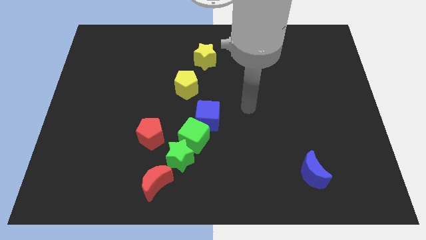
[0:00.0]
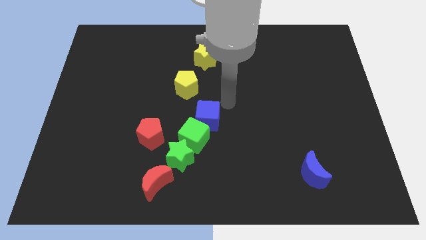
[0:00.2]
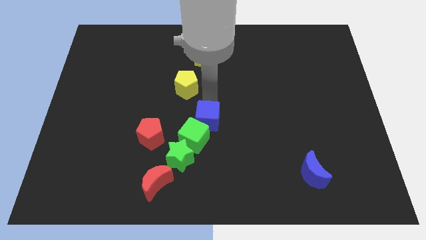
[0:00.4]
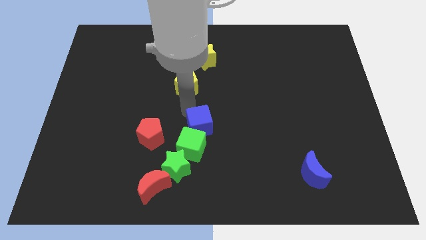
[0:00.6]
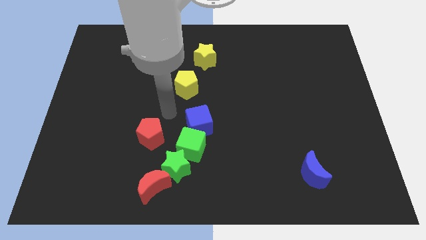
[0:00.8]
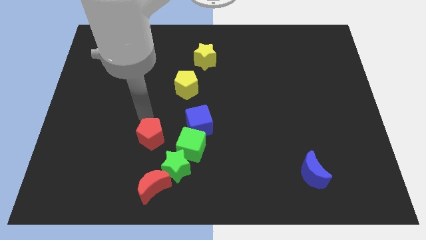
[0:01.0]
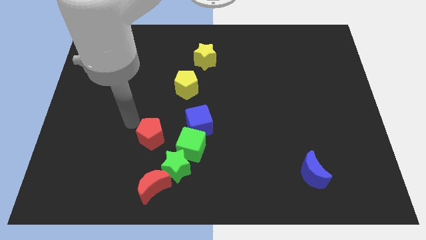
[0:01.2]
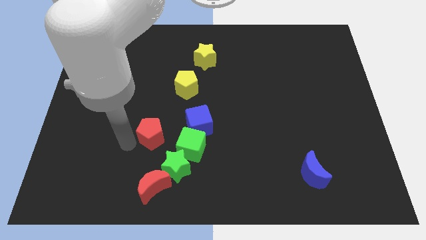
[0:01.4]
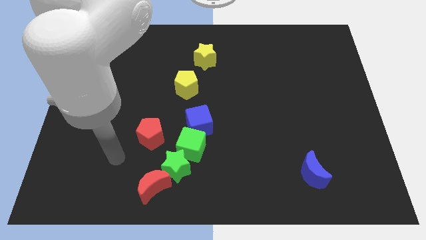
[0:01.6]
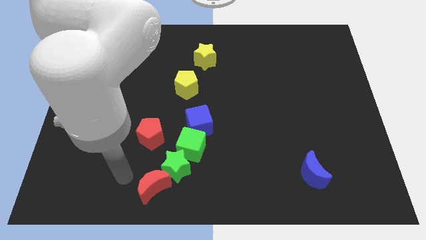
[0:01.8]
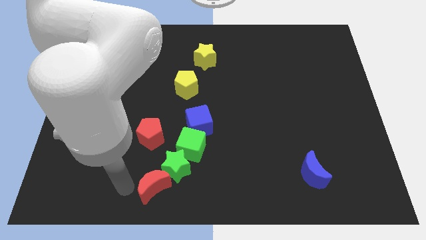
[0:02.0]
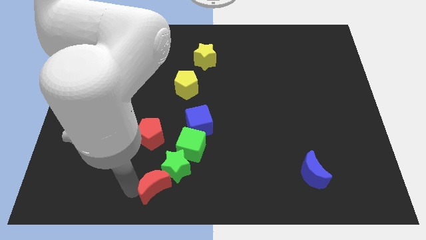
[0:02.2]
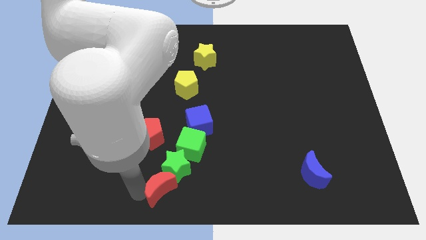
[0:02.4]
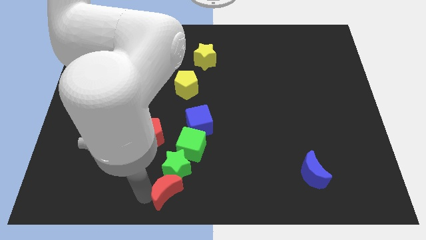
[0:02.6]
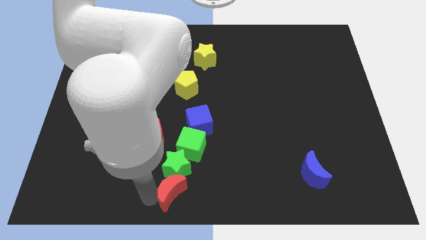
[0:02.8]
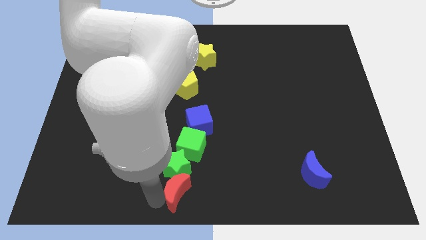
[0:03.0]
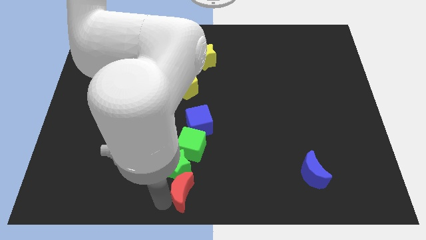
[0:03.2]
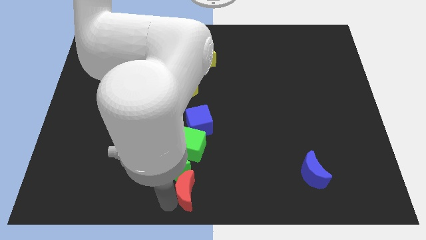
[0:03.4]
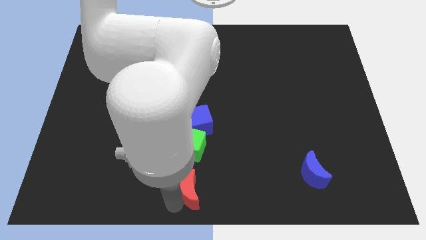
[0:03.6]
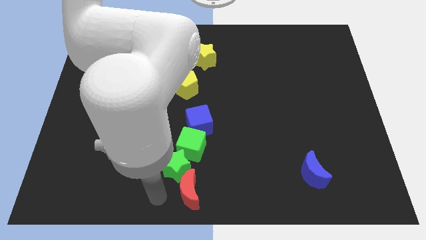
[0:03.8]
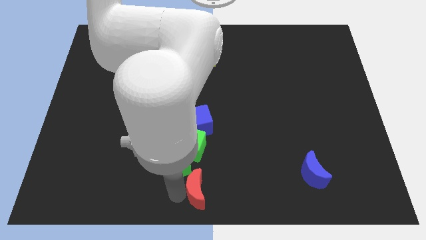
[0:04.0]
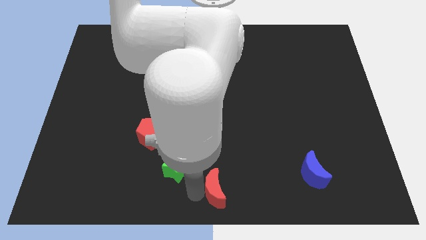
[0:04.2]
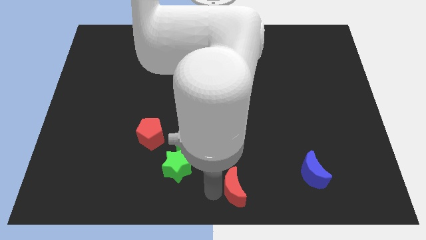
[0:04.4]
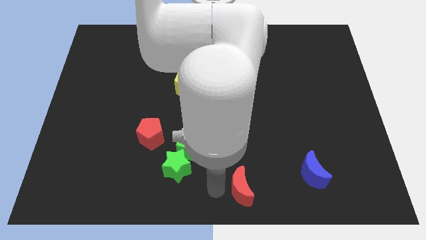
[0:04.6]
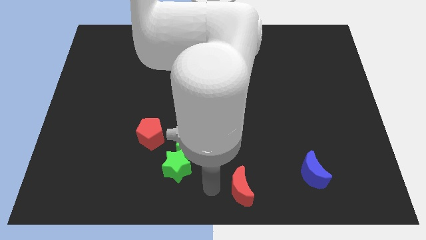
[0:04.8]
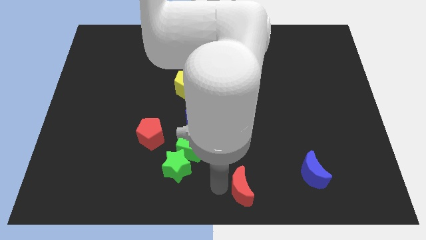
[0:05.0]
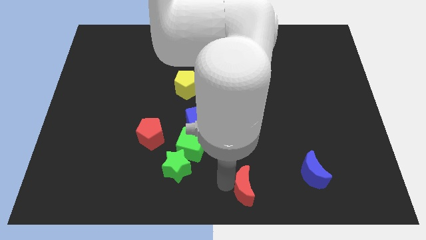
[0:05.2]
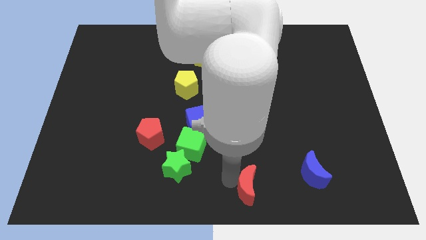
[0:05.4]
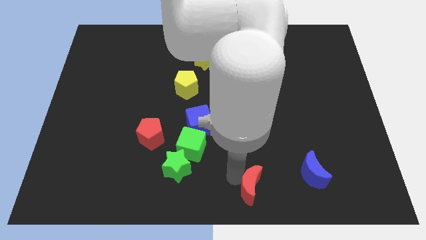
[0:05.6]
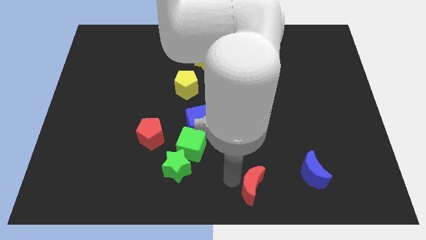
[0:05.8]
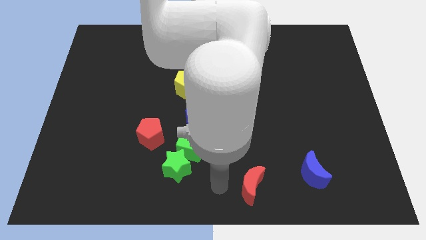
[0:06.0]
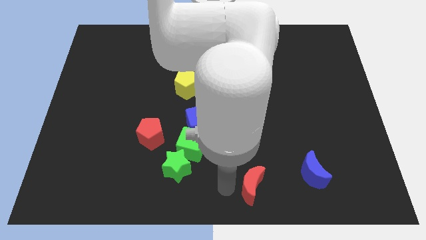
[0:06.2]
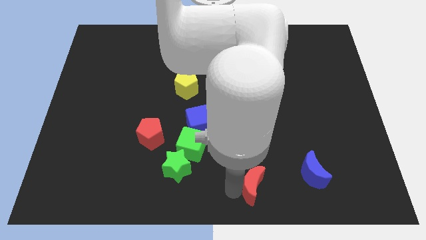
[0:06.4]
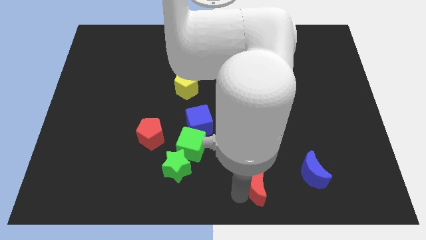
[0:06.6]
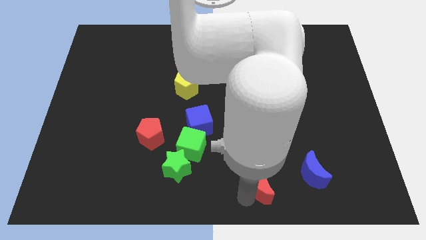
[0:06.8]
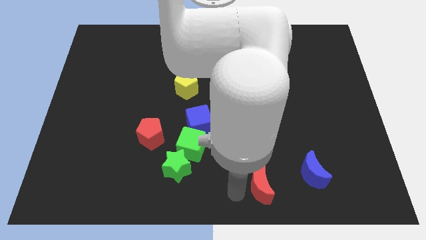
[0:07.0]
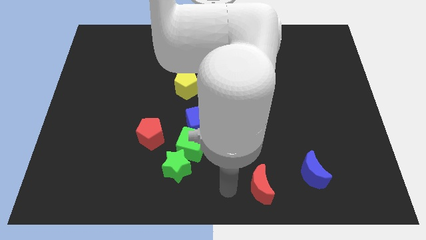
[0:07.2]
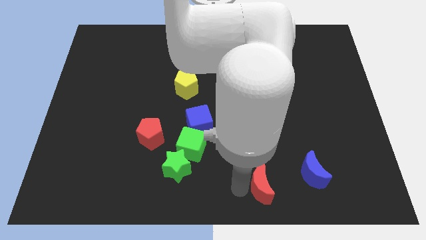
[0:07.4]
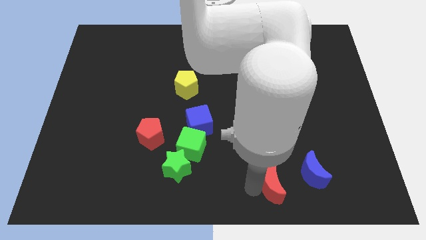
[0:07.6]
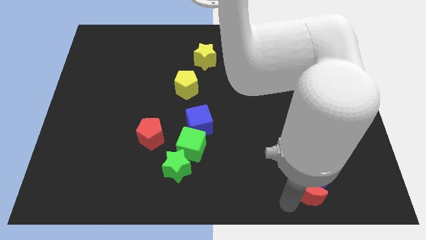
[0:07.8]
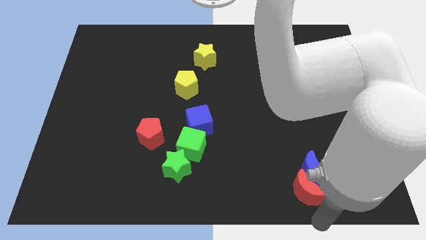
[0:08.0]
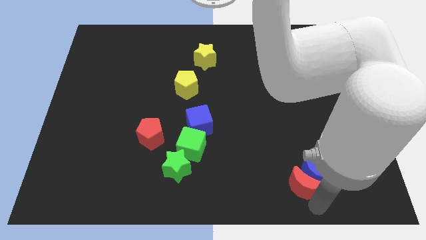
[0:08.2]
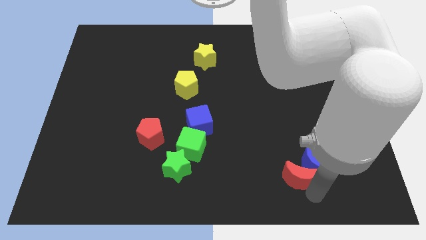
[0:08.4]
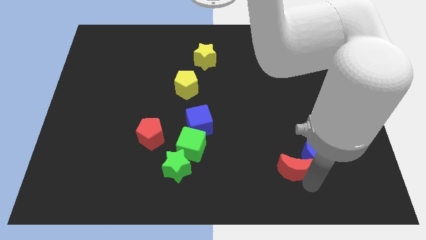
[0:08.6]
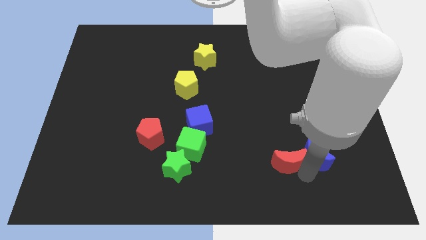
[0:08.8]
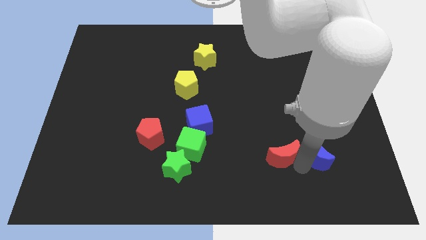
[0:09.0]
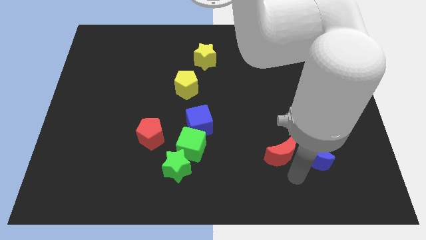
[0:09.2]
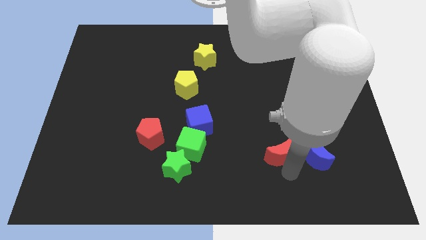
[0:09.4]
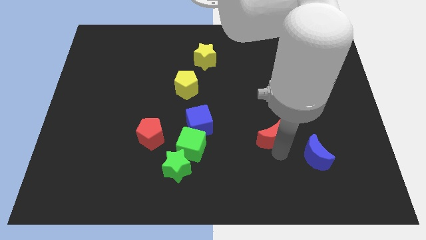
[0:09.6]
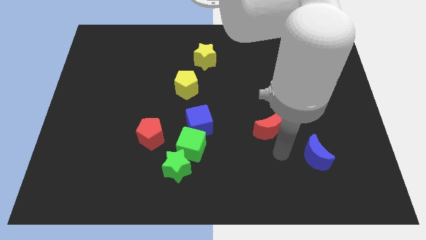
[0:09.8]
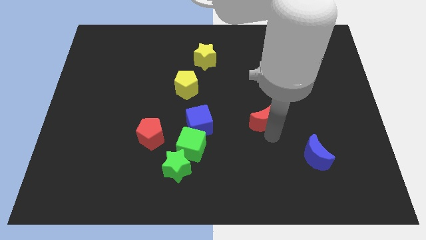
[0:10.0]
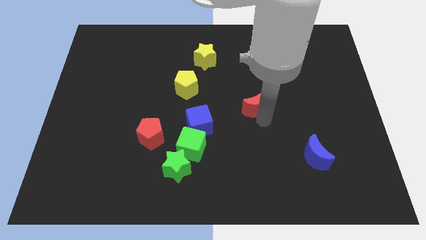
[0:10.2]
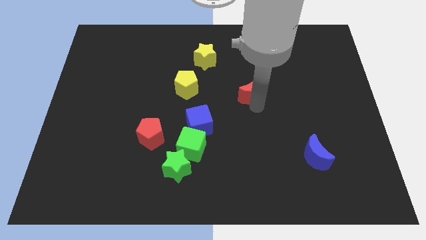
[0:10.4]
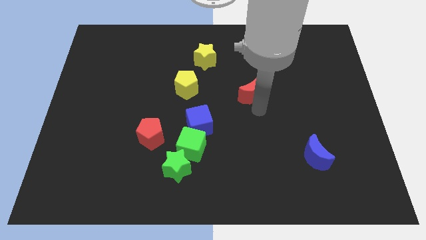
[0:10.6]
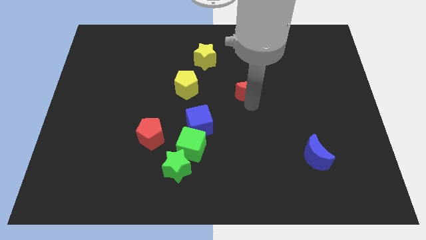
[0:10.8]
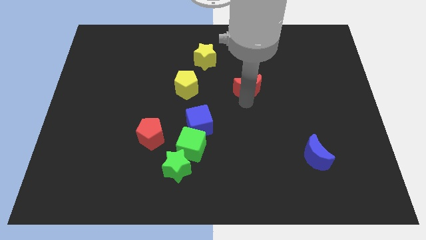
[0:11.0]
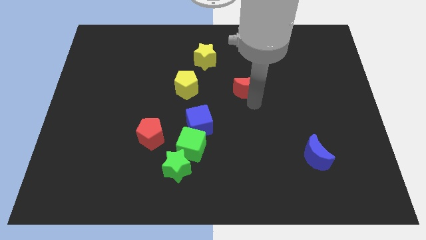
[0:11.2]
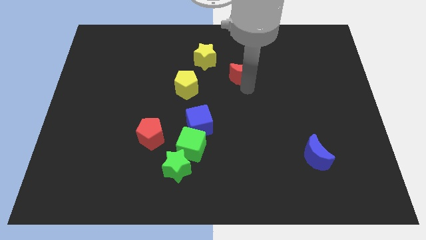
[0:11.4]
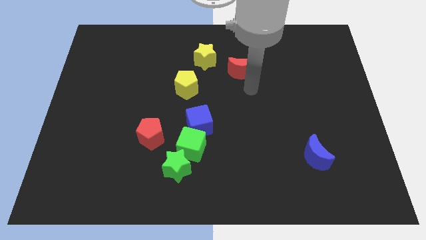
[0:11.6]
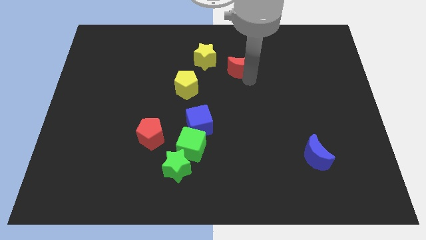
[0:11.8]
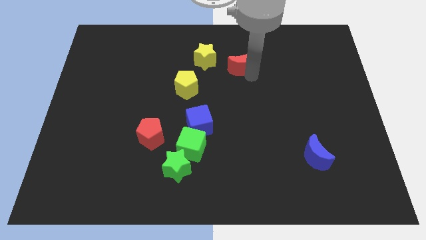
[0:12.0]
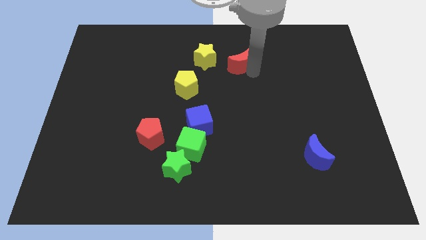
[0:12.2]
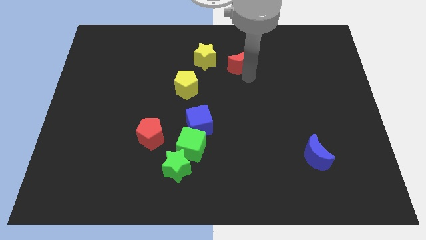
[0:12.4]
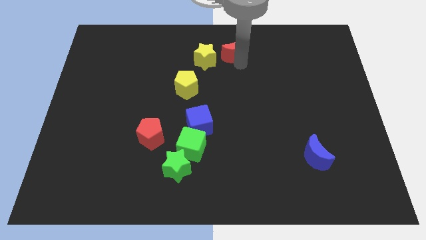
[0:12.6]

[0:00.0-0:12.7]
slide the red moon to the top

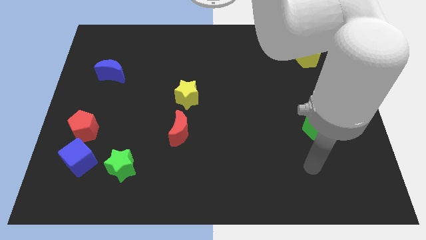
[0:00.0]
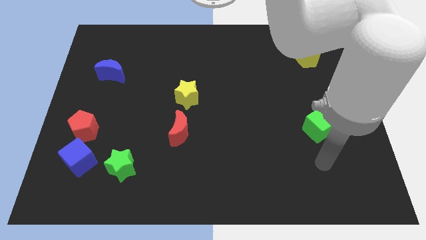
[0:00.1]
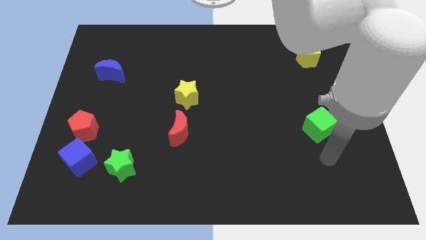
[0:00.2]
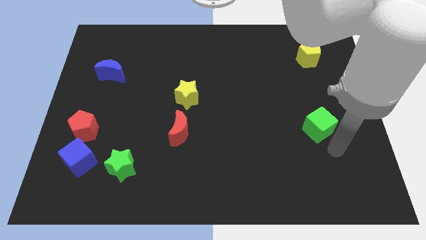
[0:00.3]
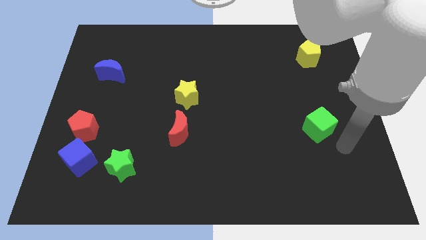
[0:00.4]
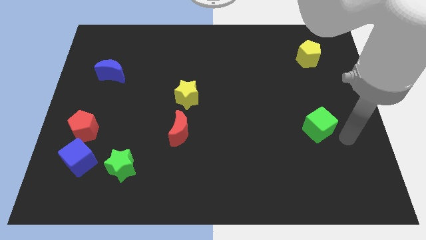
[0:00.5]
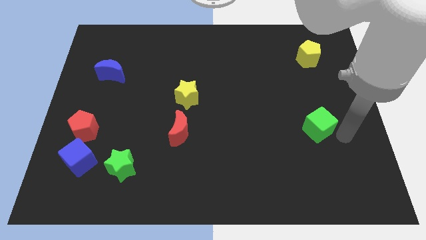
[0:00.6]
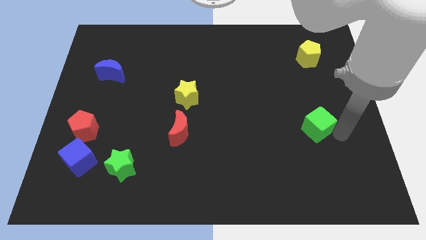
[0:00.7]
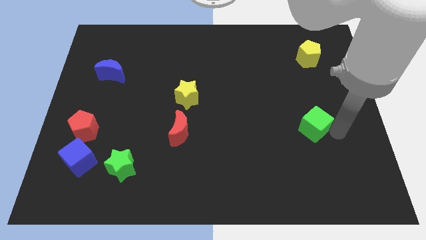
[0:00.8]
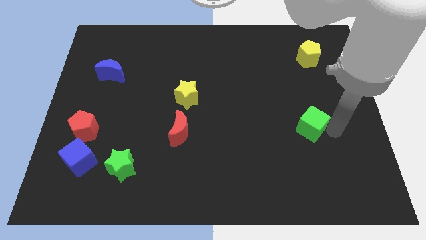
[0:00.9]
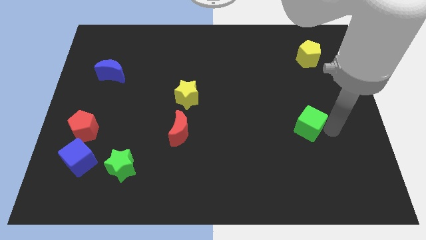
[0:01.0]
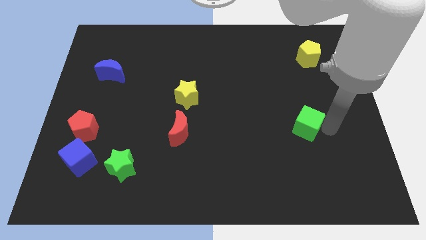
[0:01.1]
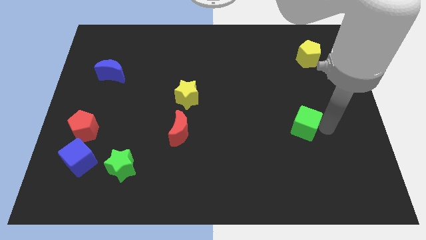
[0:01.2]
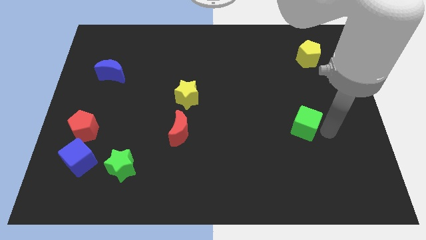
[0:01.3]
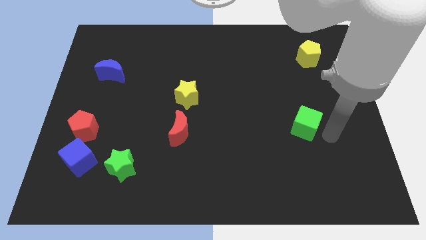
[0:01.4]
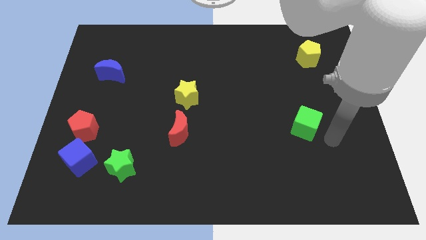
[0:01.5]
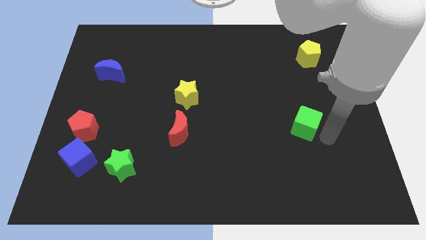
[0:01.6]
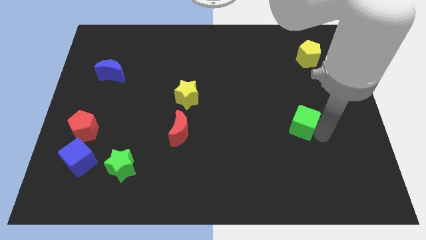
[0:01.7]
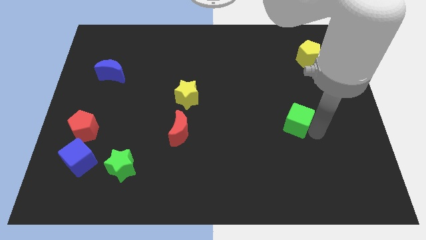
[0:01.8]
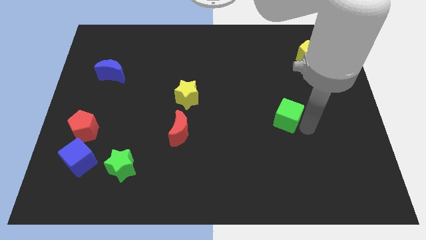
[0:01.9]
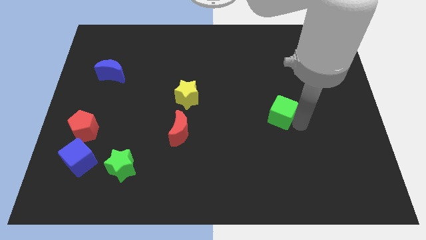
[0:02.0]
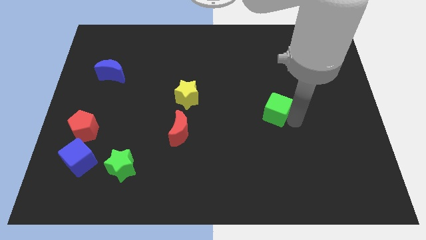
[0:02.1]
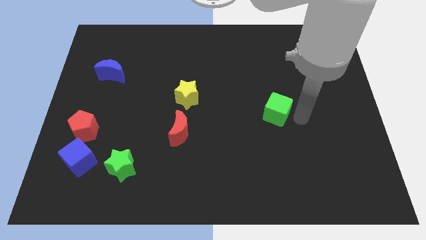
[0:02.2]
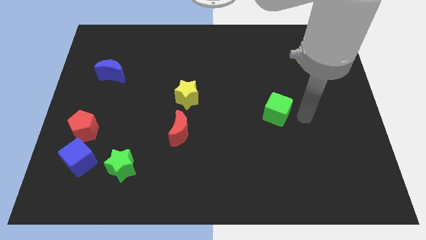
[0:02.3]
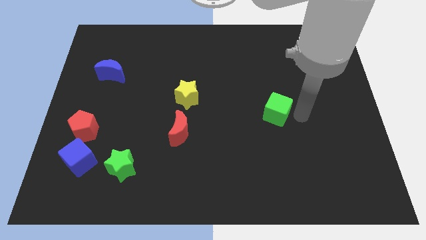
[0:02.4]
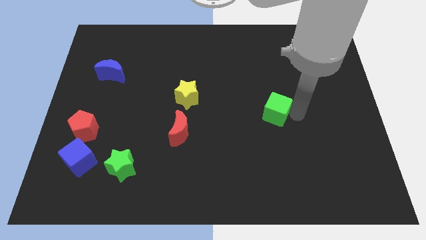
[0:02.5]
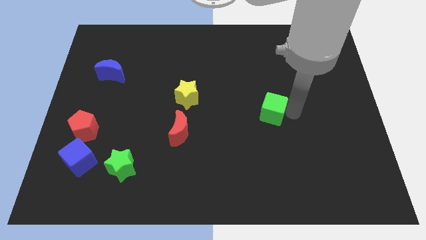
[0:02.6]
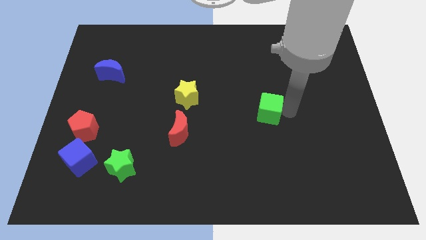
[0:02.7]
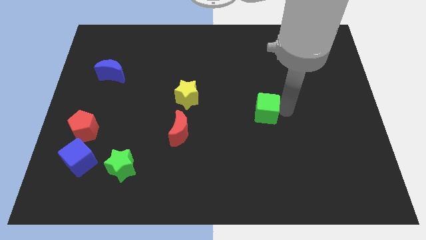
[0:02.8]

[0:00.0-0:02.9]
put the green cube to the center
